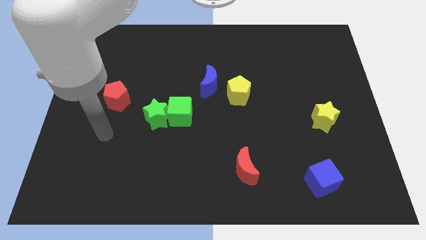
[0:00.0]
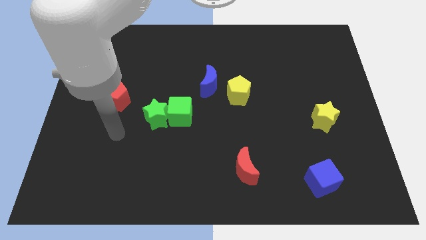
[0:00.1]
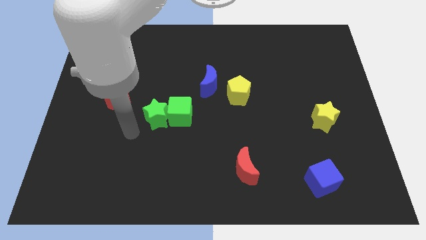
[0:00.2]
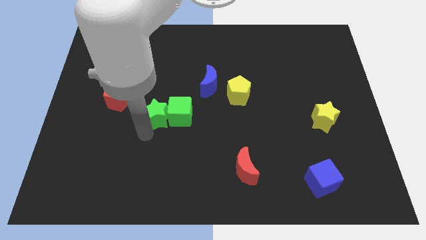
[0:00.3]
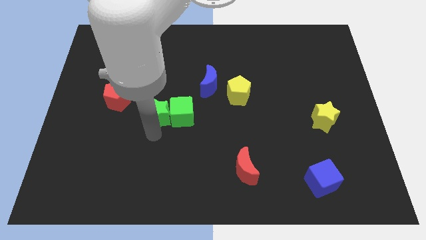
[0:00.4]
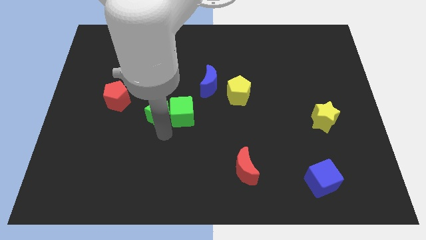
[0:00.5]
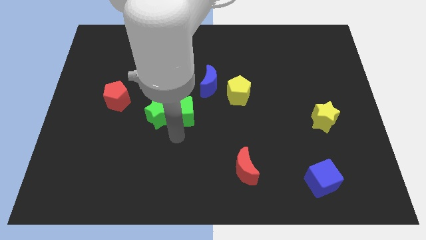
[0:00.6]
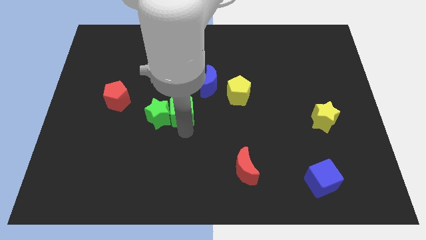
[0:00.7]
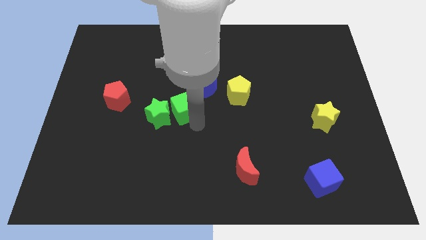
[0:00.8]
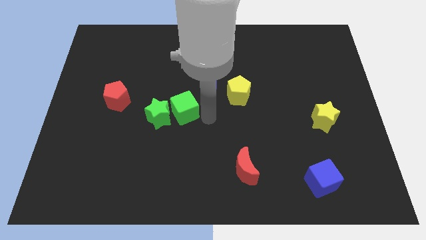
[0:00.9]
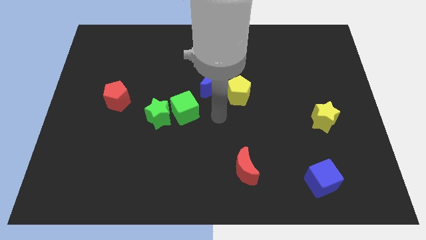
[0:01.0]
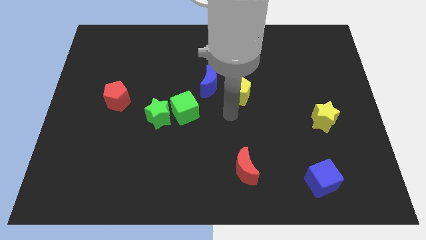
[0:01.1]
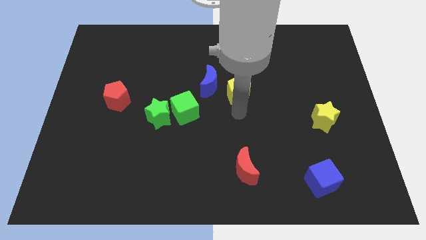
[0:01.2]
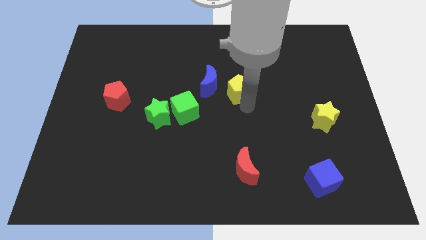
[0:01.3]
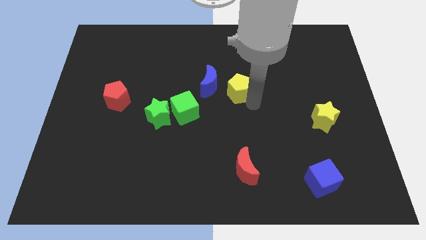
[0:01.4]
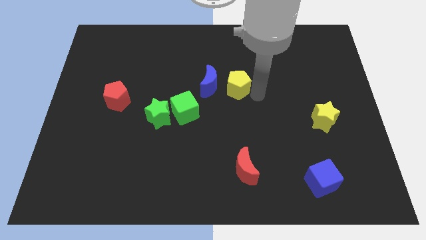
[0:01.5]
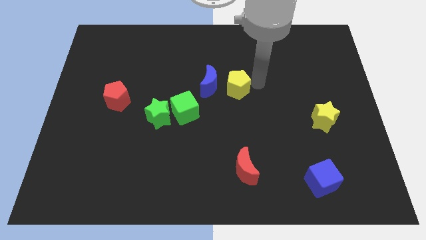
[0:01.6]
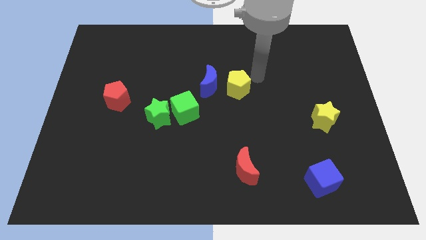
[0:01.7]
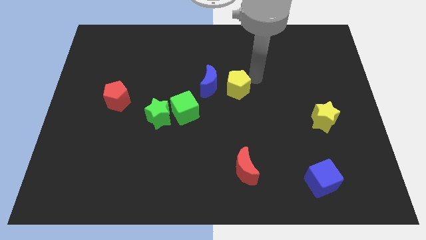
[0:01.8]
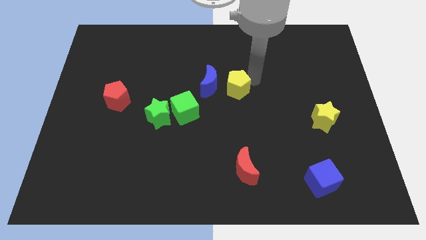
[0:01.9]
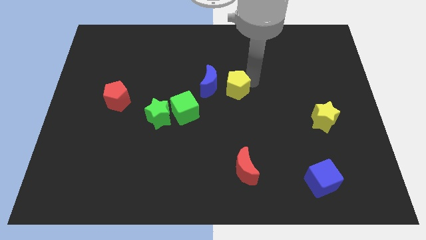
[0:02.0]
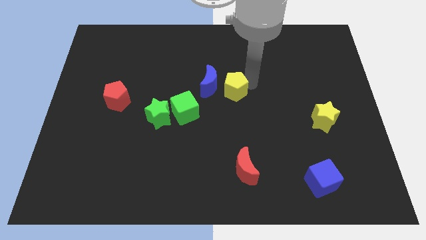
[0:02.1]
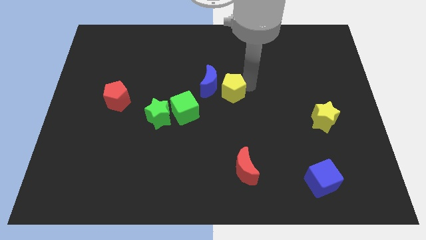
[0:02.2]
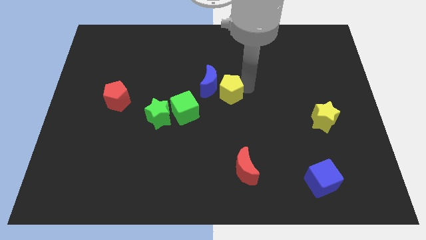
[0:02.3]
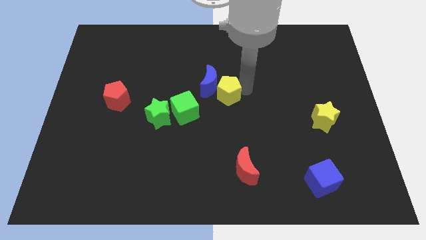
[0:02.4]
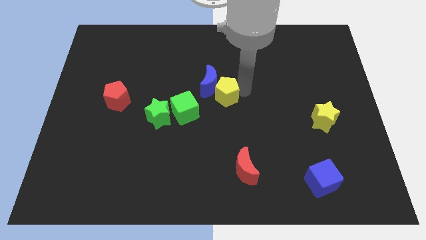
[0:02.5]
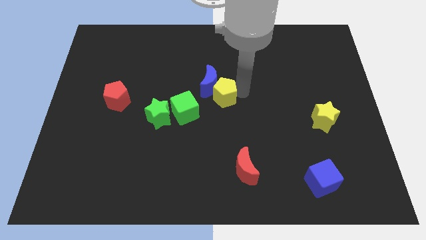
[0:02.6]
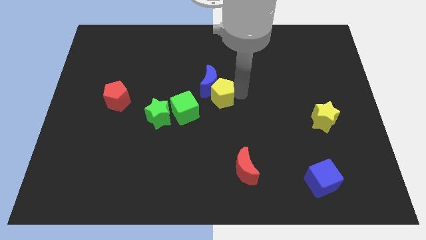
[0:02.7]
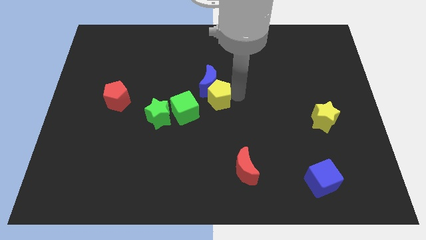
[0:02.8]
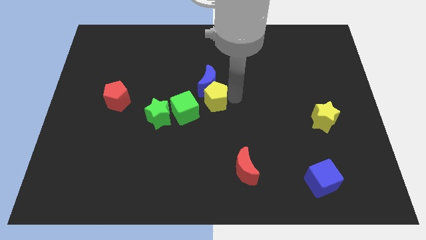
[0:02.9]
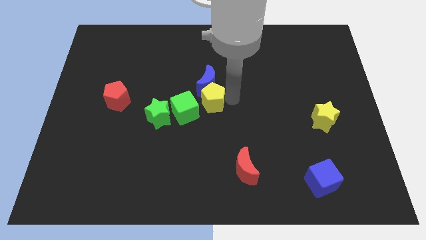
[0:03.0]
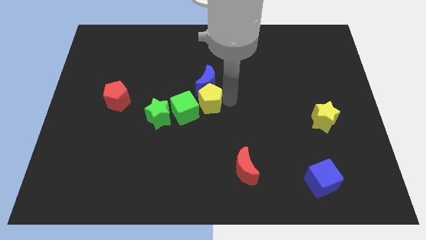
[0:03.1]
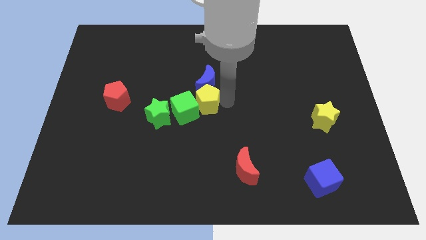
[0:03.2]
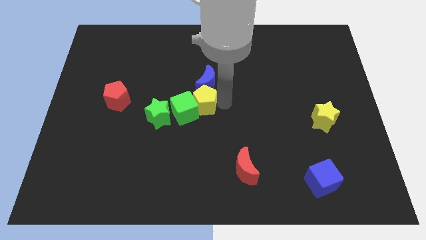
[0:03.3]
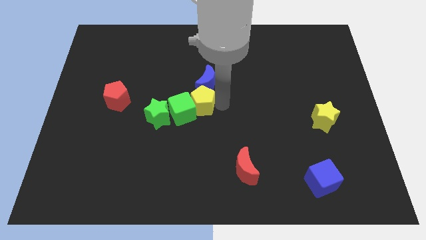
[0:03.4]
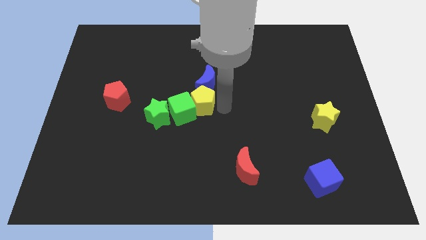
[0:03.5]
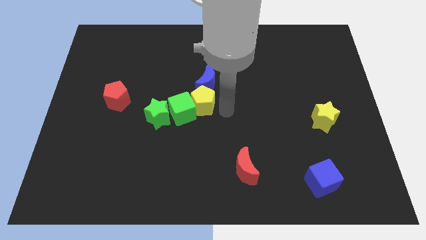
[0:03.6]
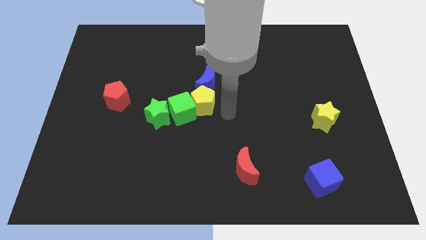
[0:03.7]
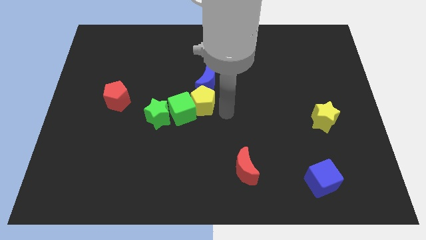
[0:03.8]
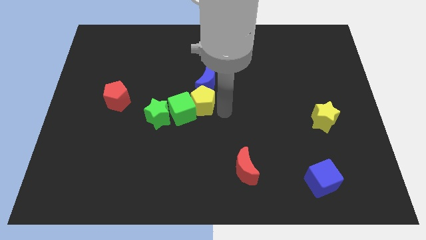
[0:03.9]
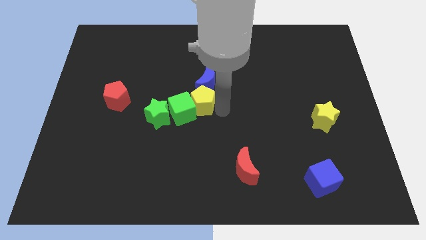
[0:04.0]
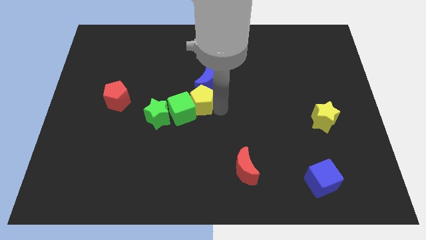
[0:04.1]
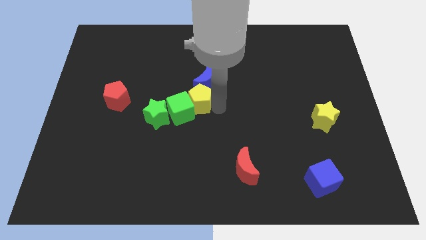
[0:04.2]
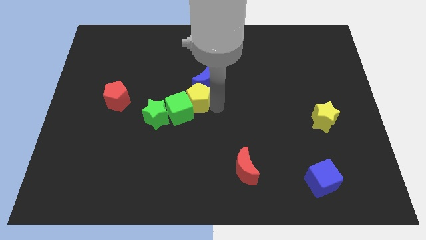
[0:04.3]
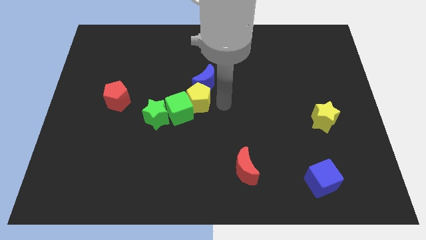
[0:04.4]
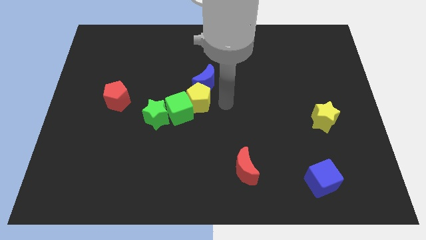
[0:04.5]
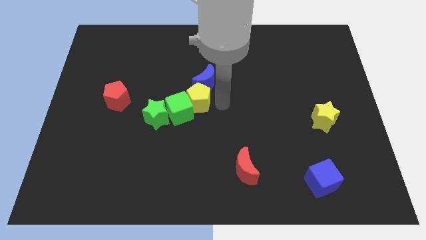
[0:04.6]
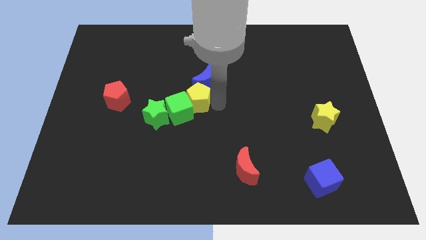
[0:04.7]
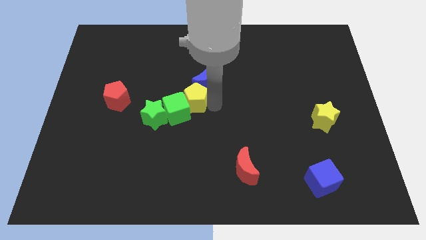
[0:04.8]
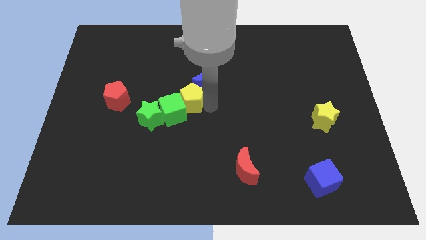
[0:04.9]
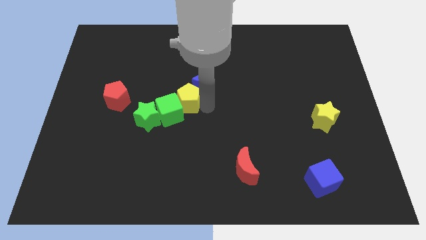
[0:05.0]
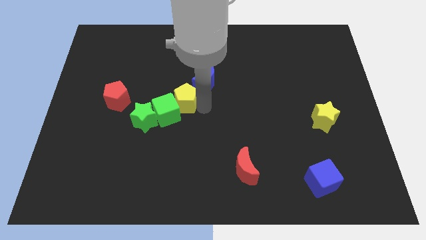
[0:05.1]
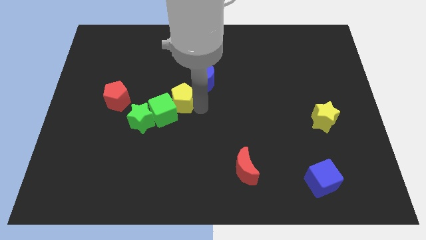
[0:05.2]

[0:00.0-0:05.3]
slide the yellow pentagon to the right of the red pentagon

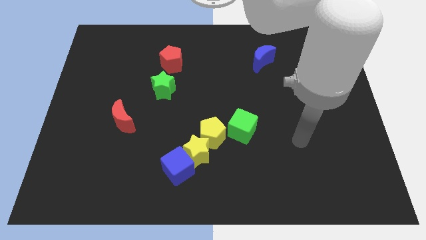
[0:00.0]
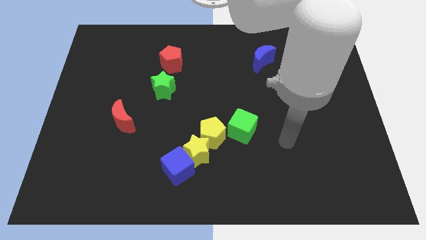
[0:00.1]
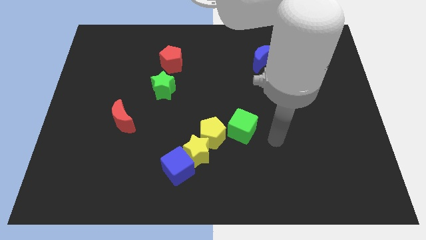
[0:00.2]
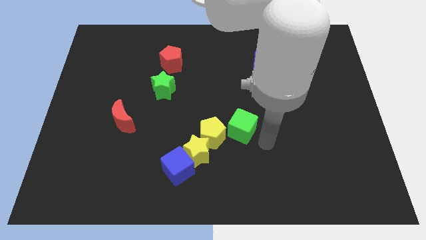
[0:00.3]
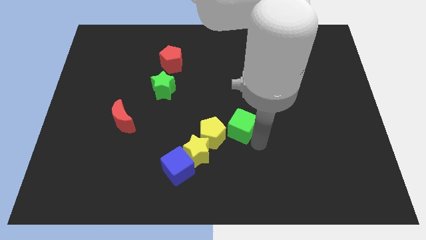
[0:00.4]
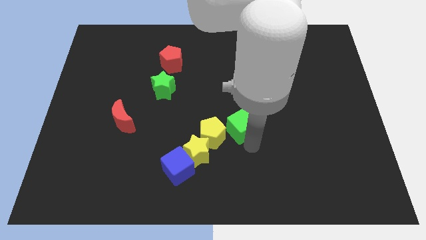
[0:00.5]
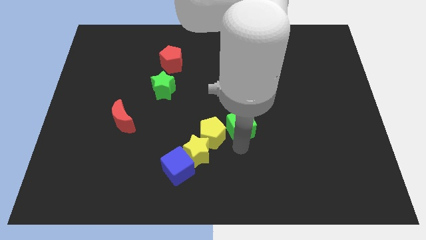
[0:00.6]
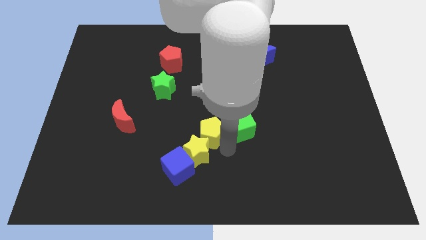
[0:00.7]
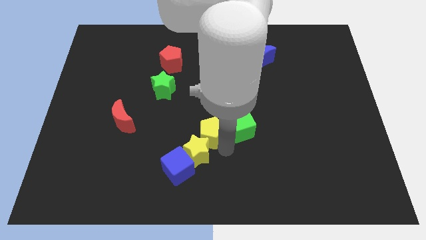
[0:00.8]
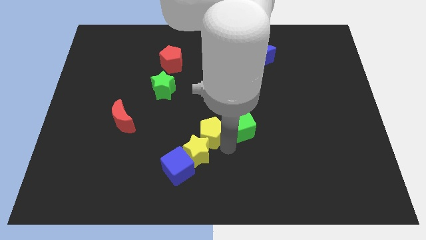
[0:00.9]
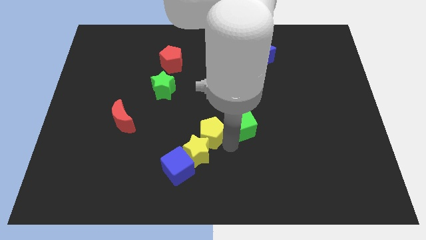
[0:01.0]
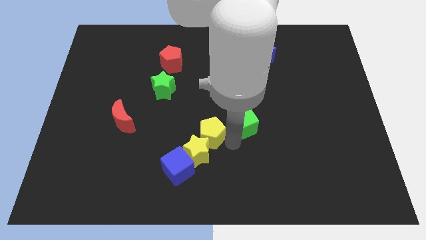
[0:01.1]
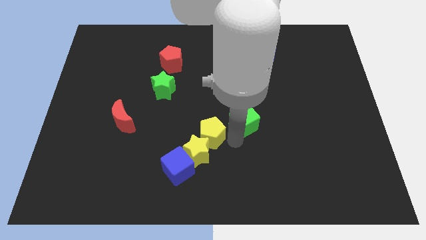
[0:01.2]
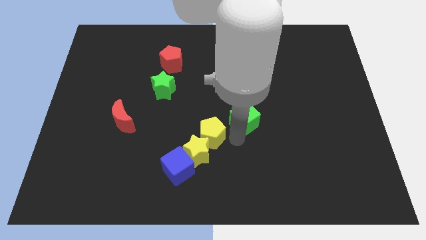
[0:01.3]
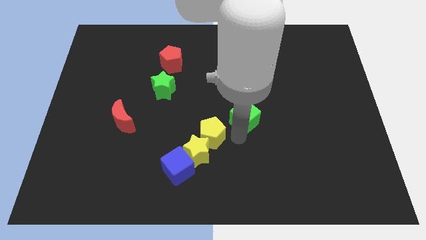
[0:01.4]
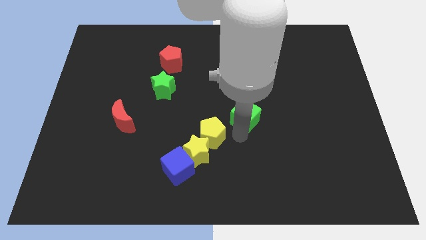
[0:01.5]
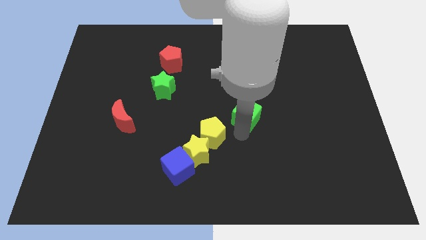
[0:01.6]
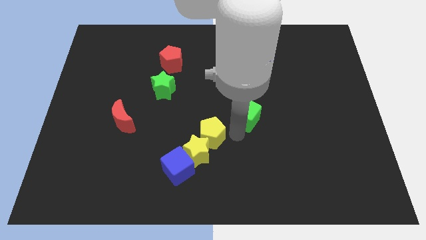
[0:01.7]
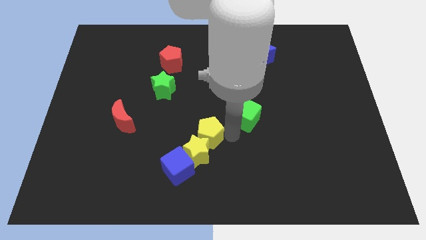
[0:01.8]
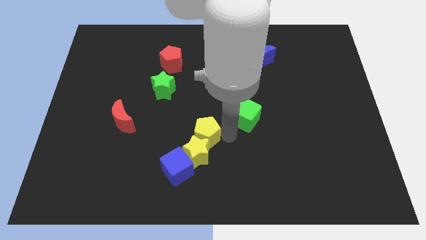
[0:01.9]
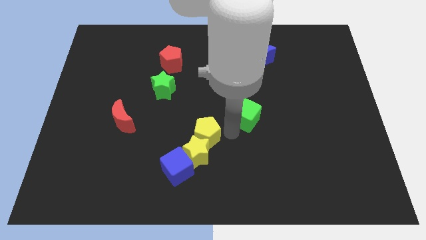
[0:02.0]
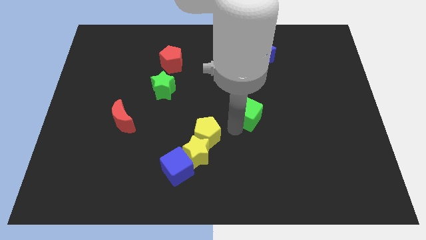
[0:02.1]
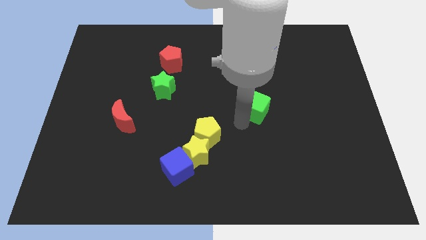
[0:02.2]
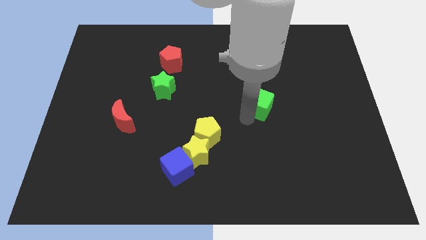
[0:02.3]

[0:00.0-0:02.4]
move the green cube to the bottom side of the blue moon
